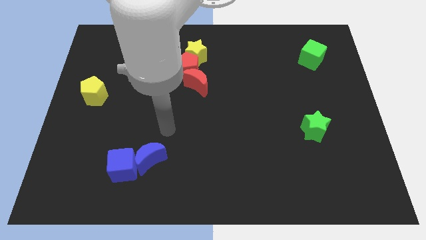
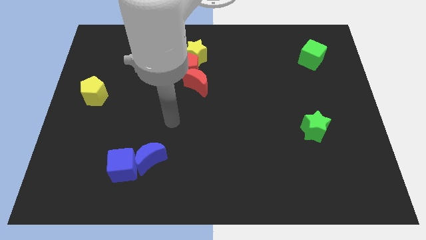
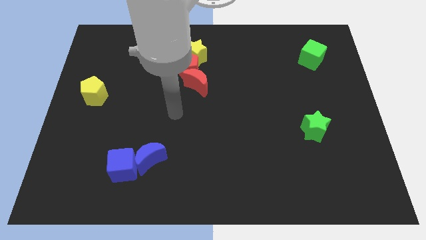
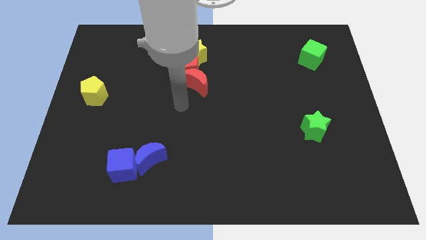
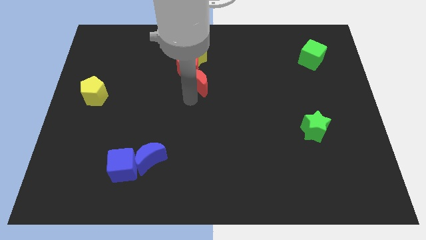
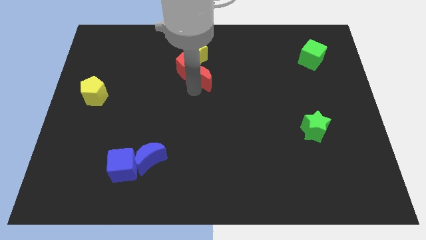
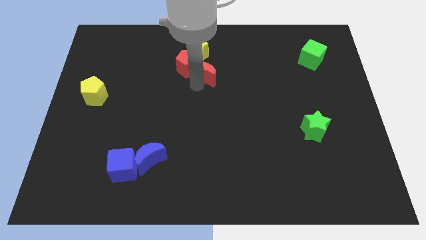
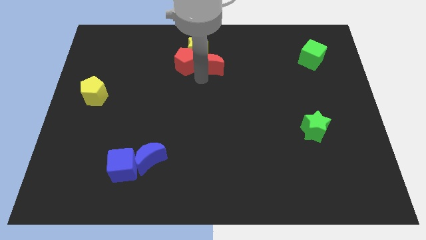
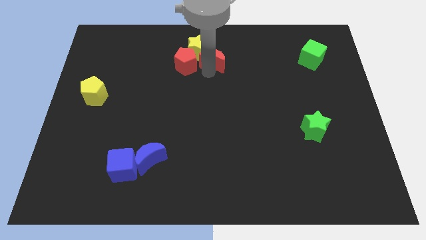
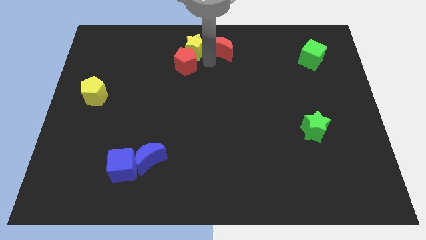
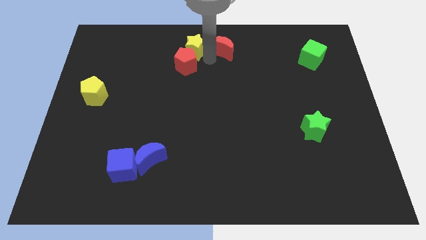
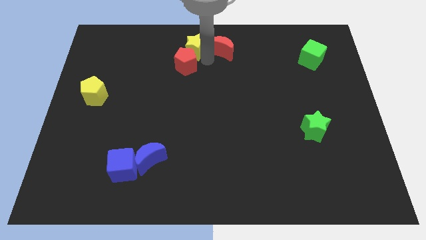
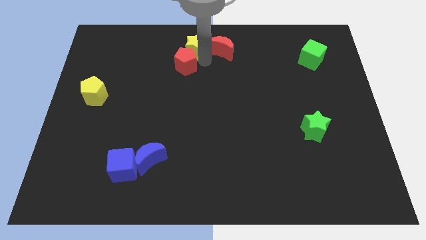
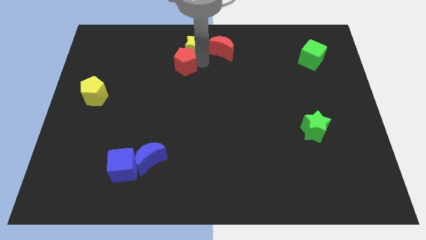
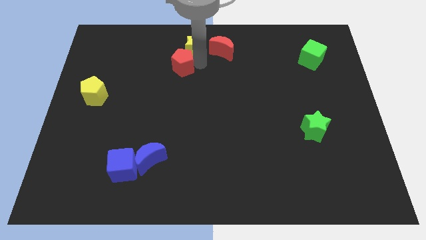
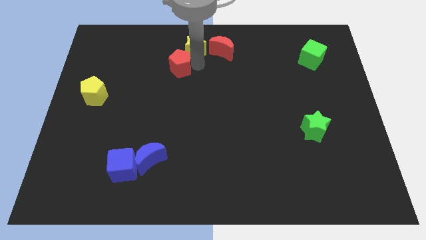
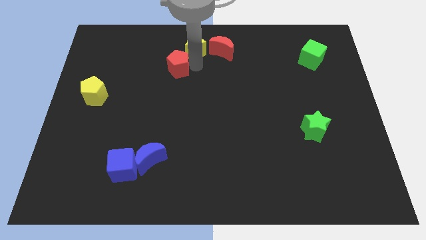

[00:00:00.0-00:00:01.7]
pull the red pentagon apart from the yellow star and red moon

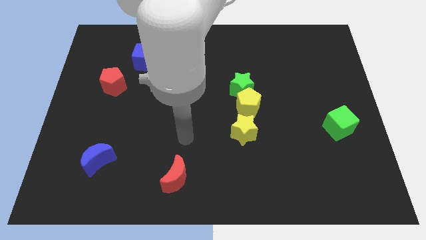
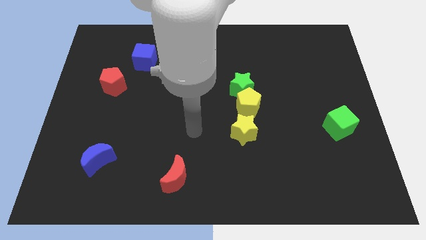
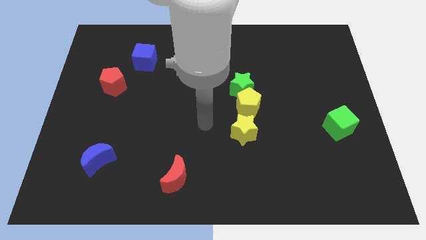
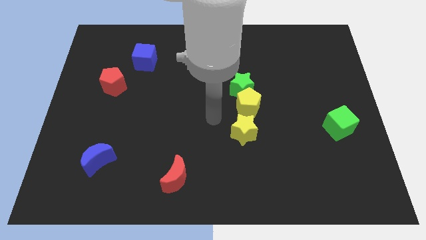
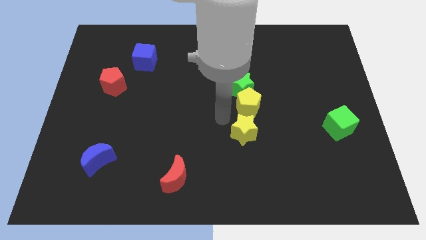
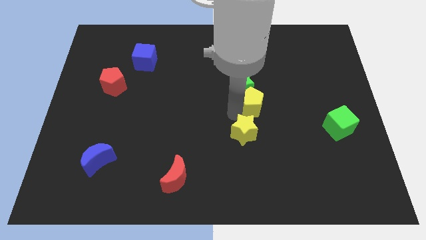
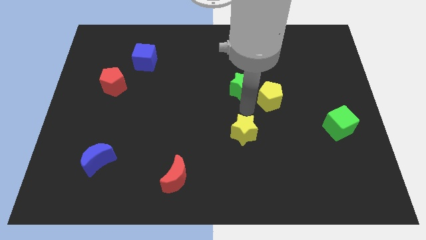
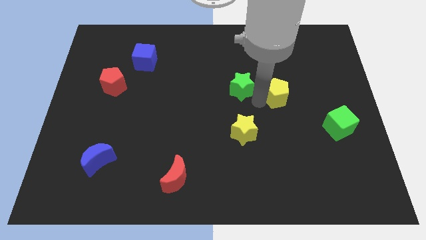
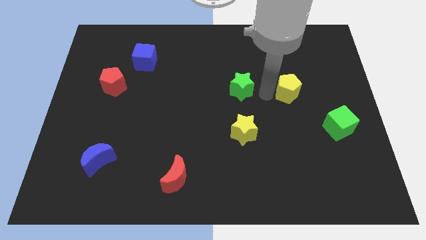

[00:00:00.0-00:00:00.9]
separate the green star from the yellow pentagon

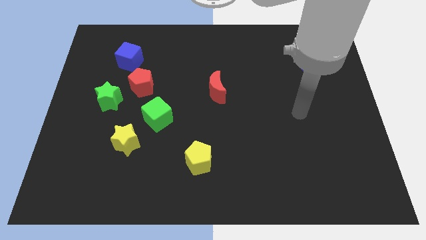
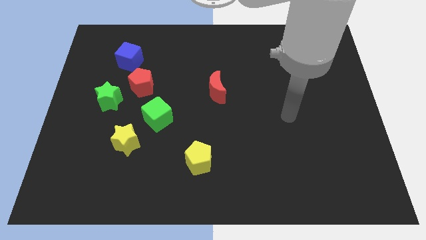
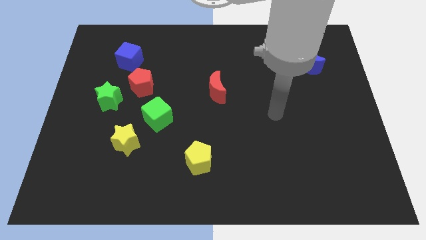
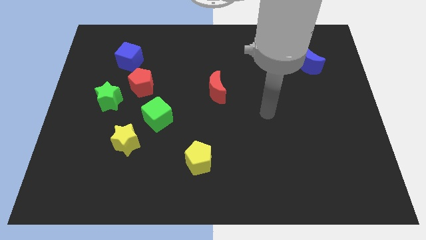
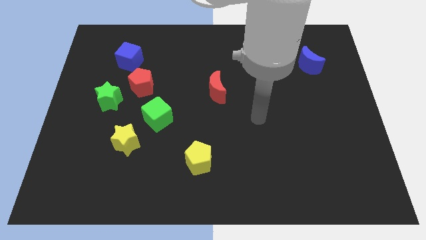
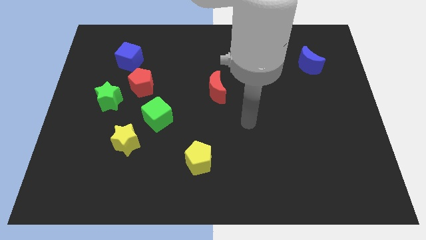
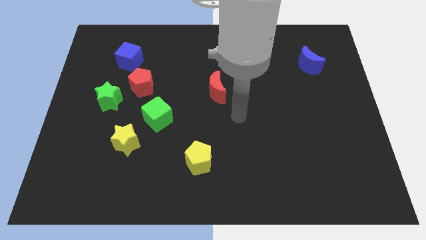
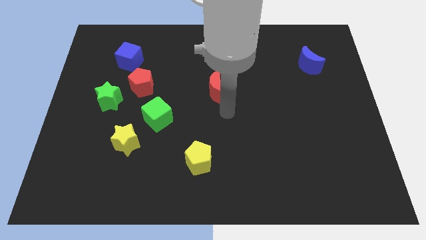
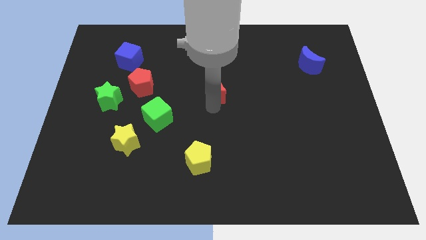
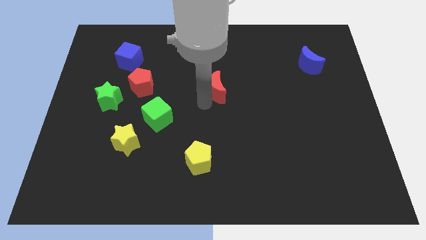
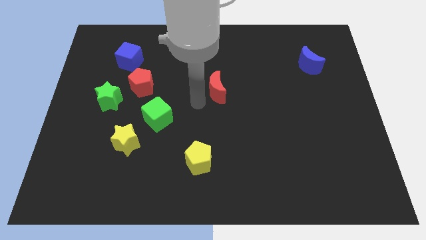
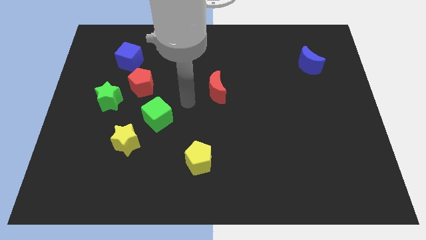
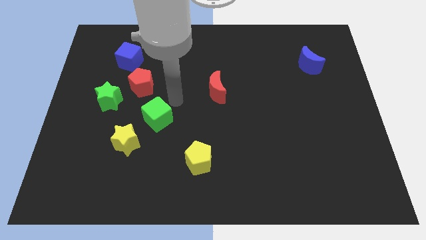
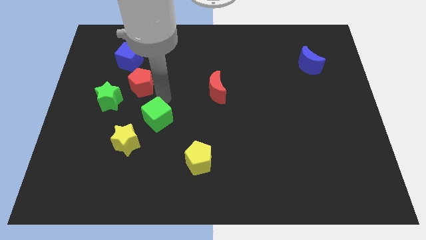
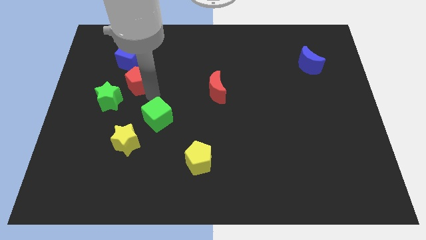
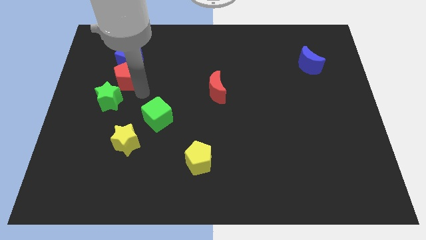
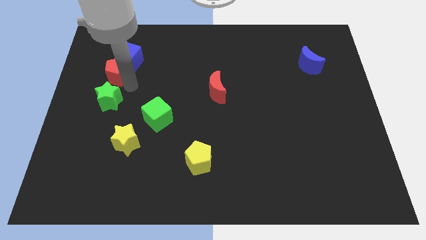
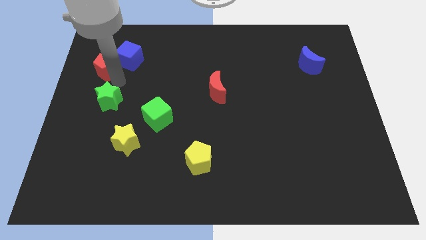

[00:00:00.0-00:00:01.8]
move the green star away from the red pentagon

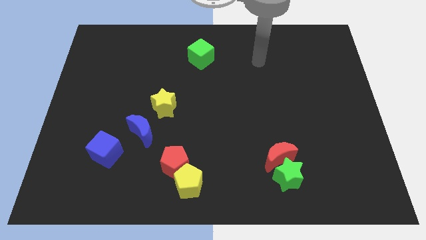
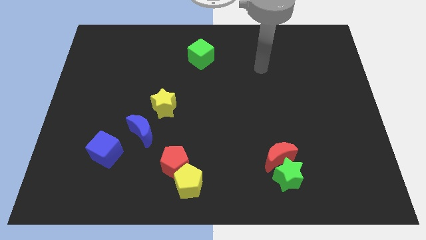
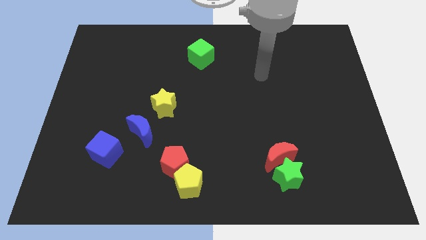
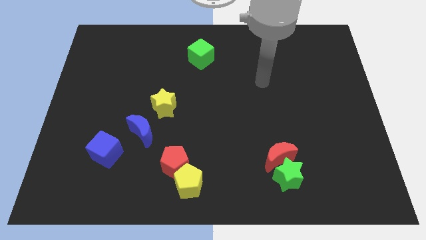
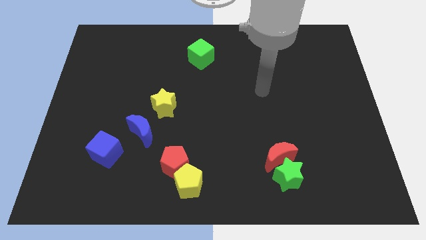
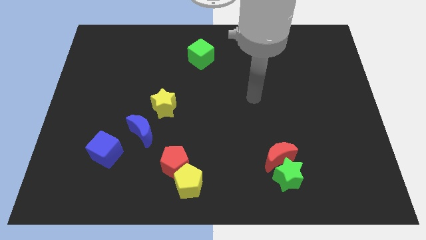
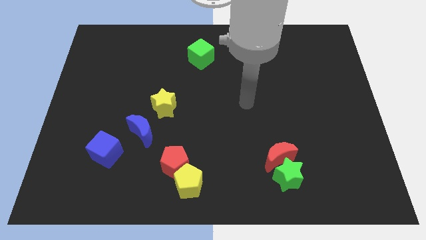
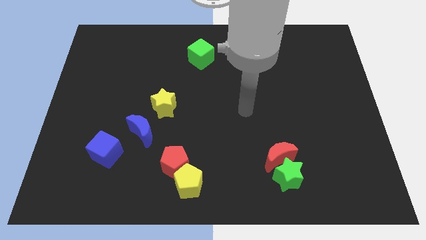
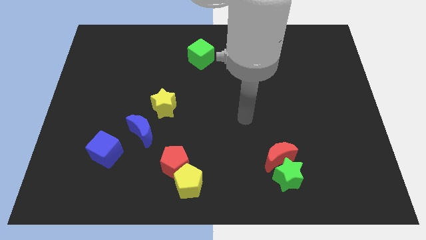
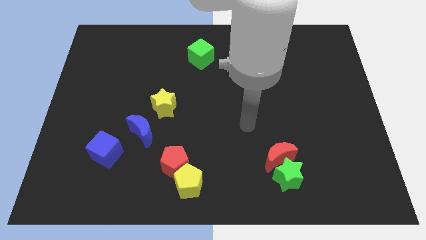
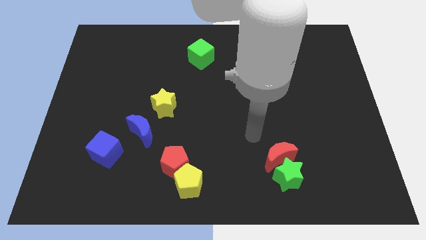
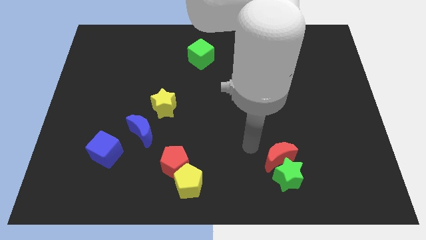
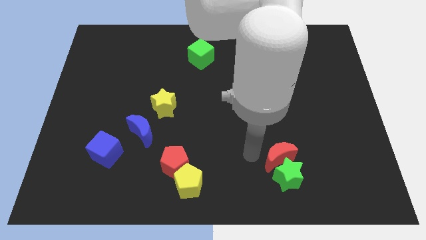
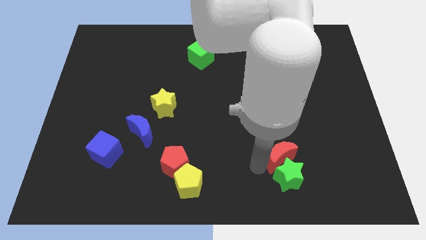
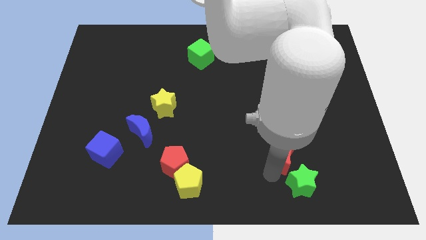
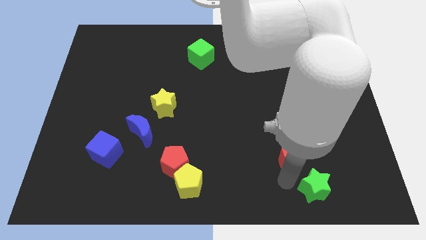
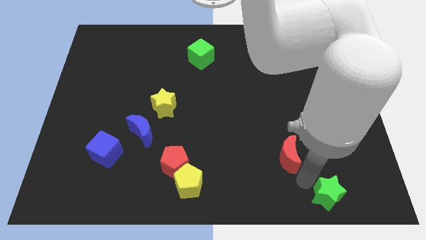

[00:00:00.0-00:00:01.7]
move the red moon away from the green star

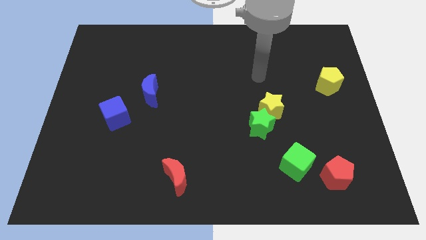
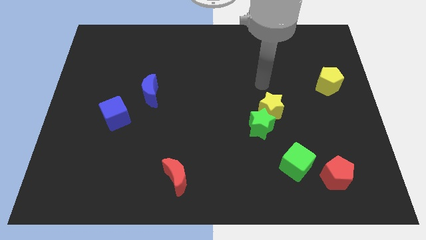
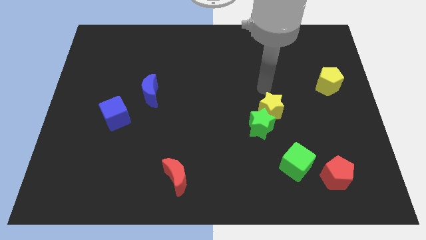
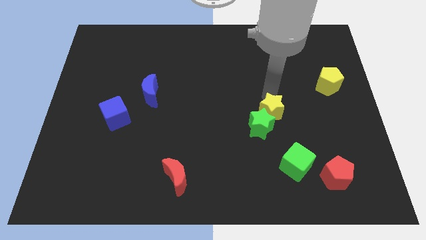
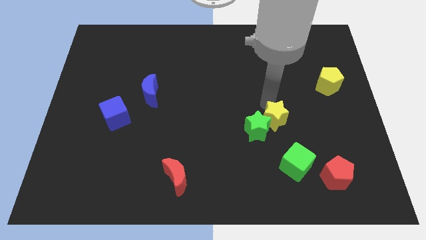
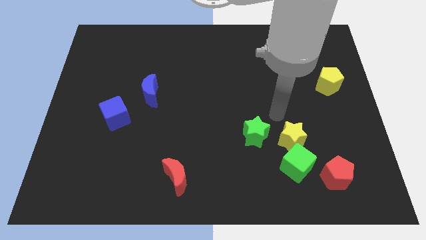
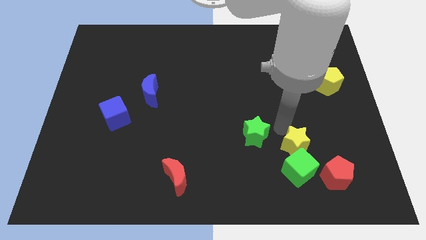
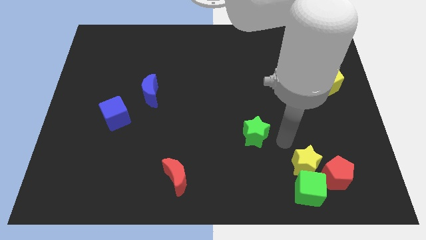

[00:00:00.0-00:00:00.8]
pull the green star apart from the yellow star

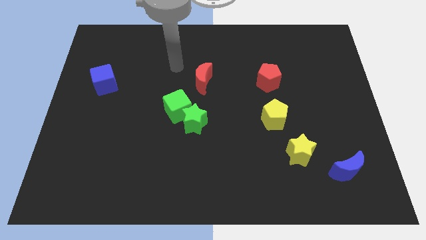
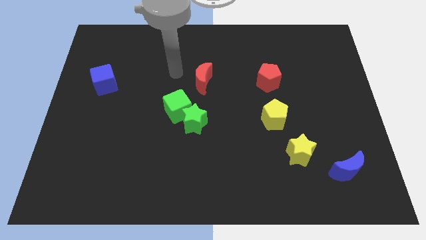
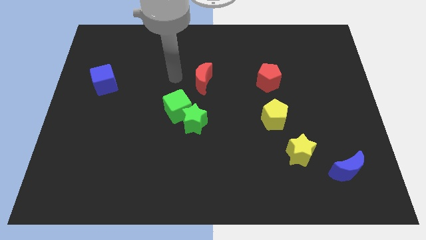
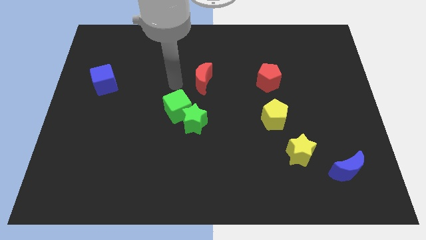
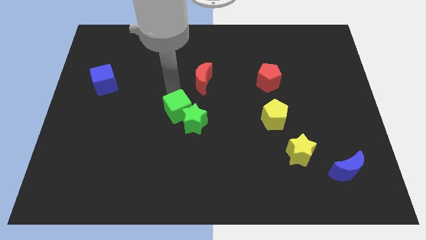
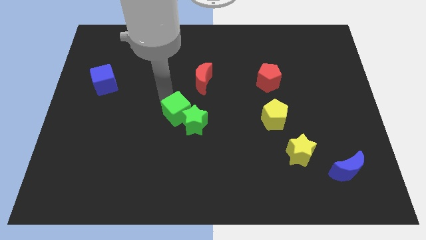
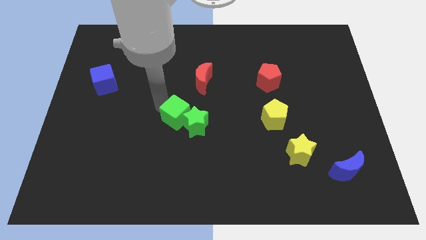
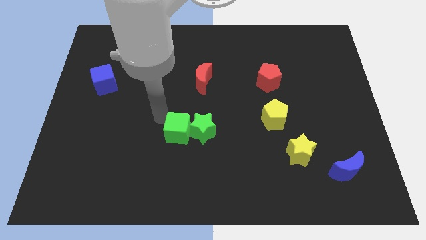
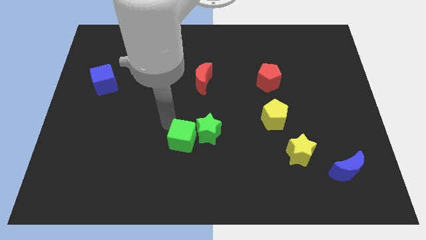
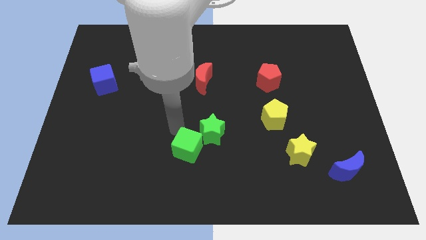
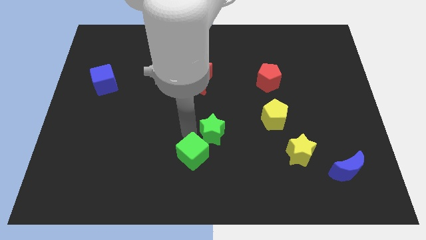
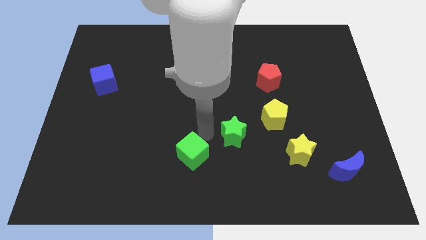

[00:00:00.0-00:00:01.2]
move the green cube away from the green star

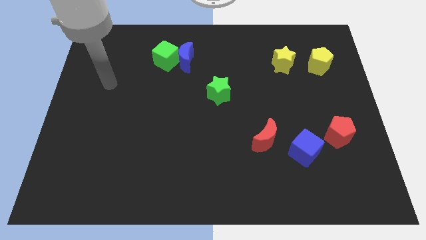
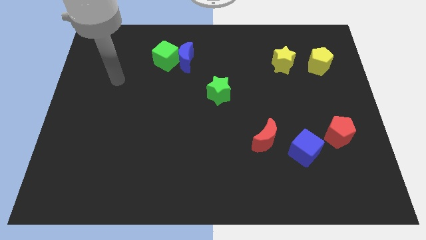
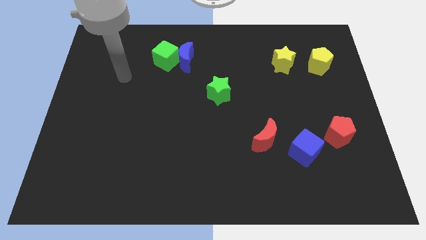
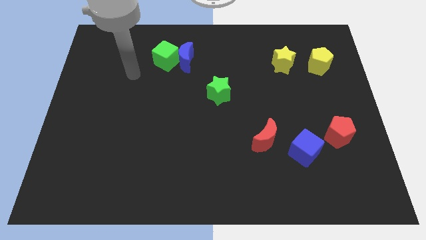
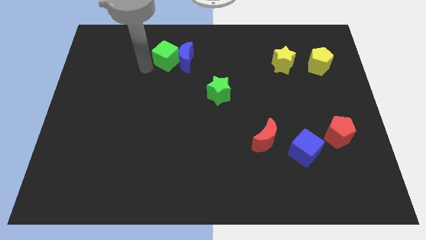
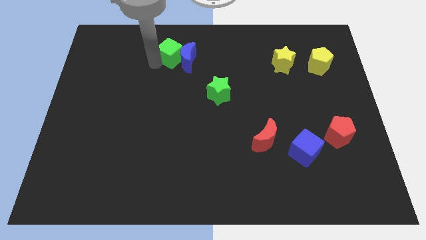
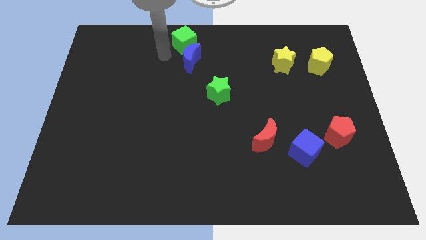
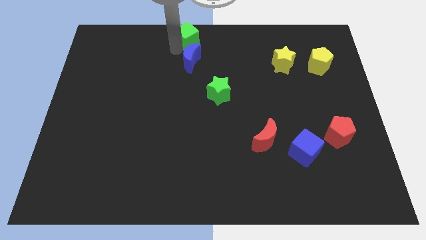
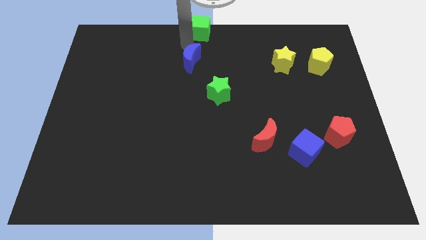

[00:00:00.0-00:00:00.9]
pull the blue moon apart from the green cube

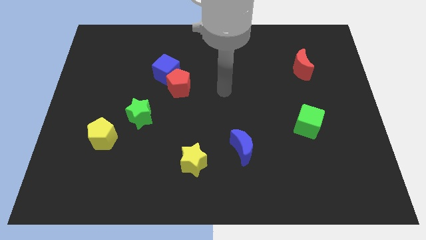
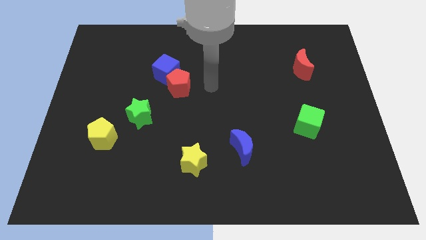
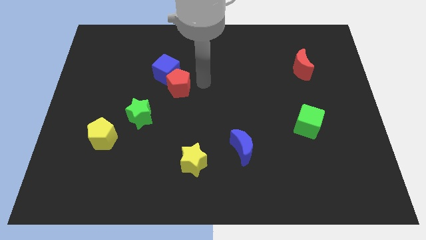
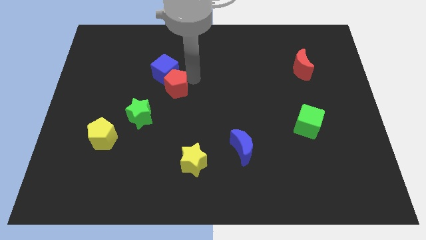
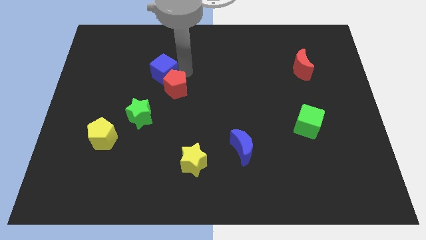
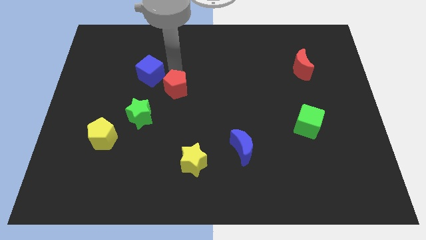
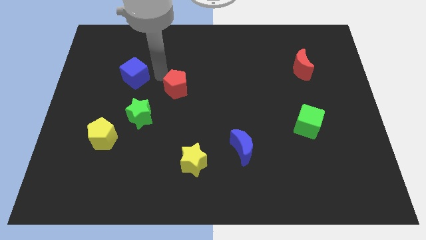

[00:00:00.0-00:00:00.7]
pull the red pentagon apart from the blue cube
